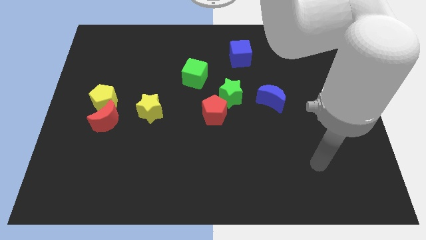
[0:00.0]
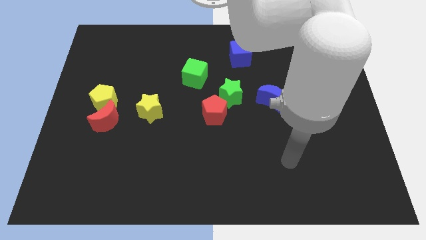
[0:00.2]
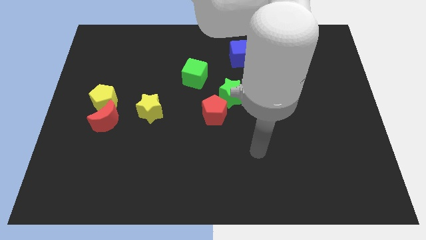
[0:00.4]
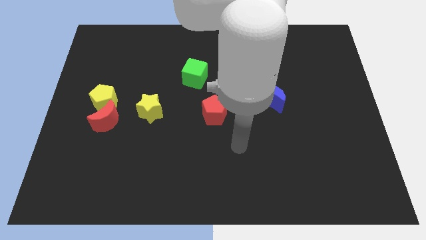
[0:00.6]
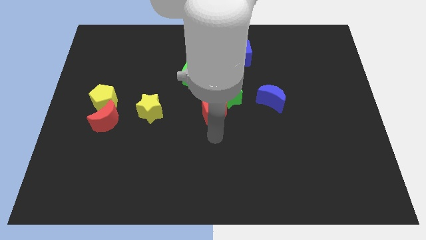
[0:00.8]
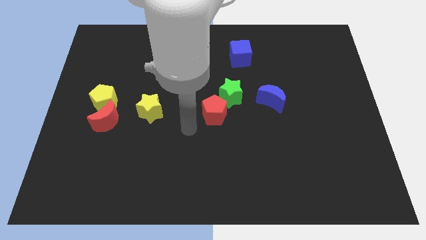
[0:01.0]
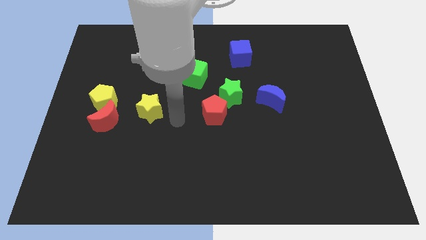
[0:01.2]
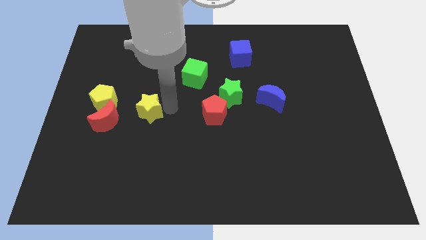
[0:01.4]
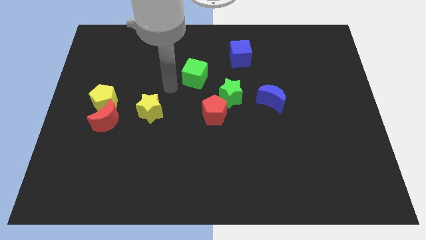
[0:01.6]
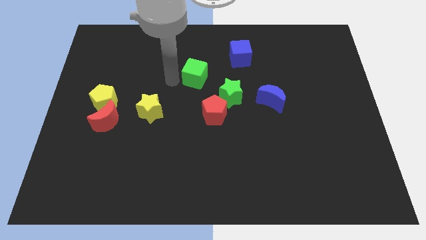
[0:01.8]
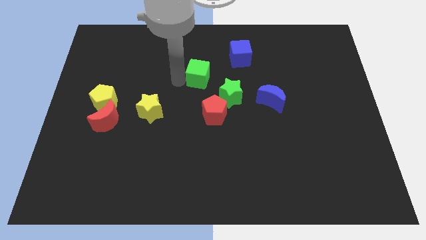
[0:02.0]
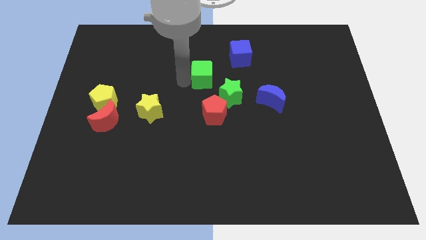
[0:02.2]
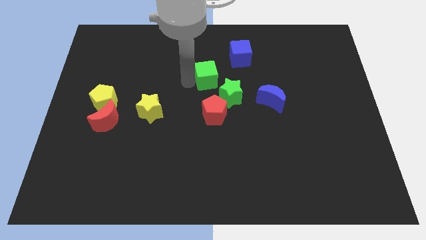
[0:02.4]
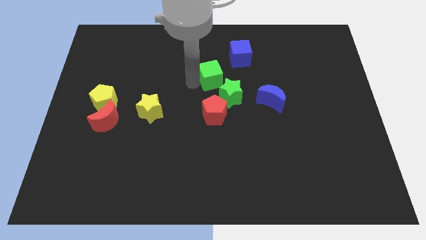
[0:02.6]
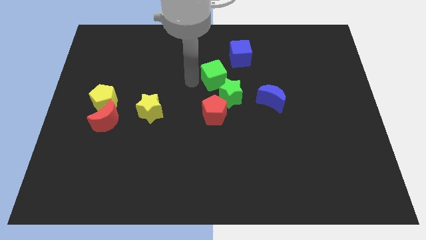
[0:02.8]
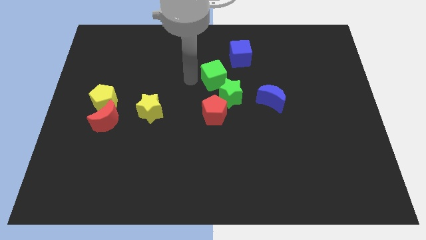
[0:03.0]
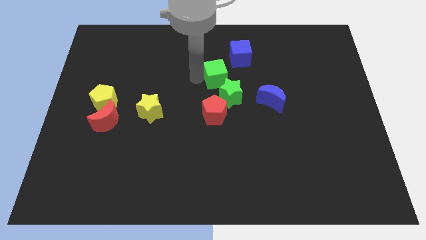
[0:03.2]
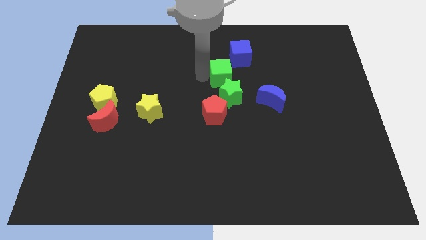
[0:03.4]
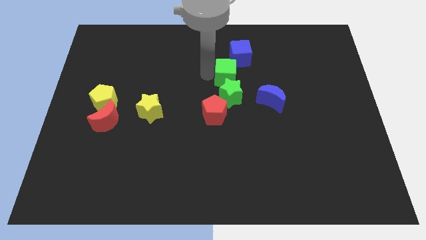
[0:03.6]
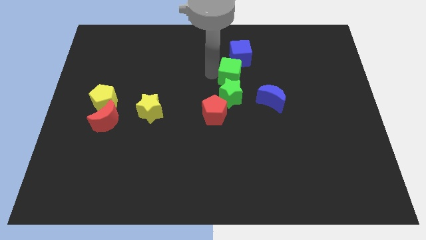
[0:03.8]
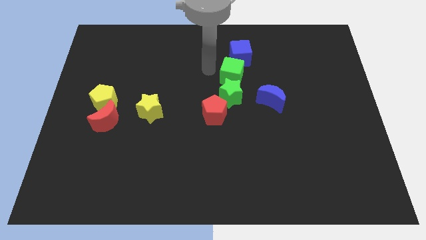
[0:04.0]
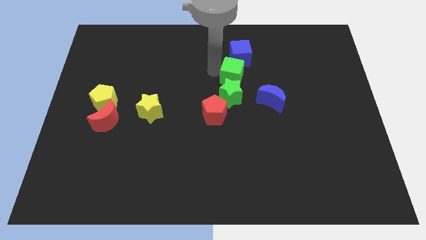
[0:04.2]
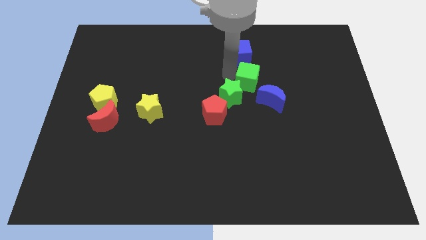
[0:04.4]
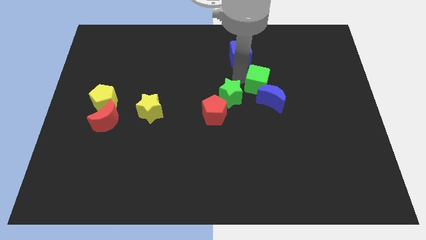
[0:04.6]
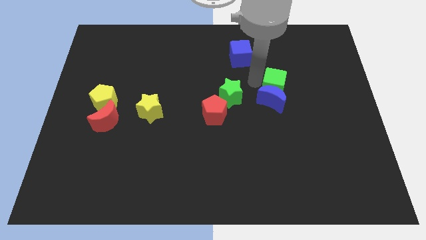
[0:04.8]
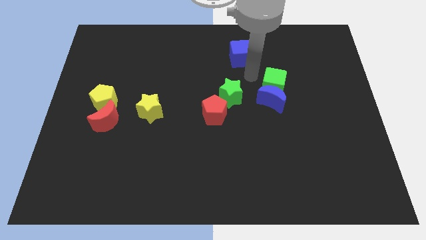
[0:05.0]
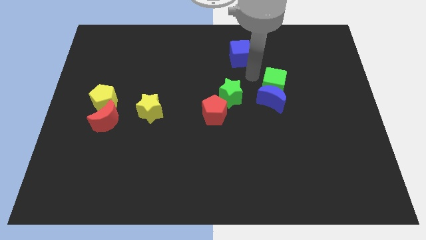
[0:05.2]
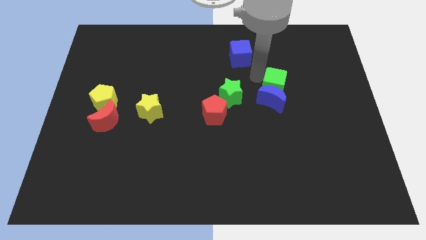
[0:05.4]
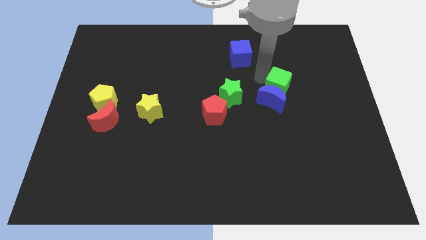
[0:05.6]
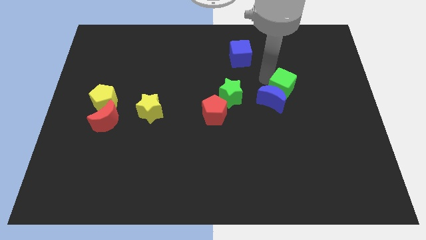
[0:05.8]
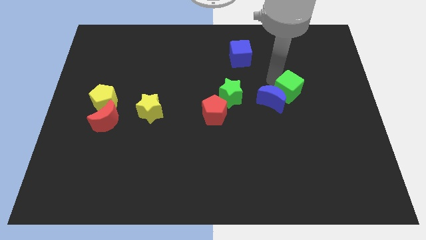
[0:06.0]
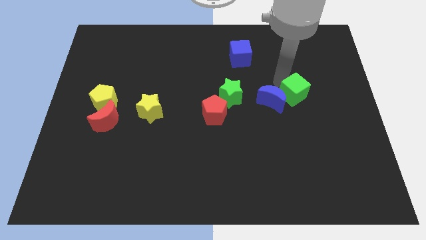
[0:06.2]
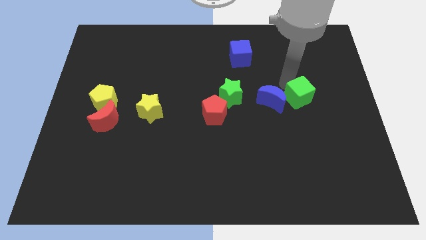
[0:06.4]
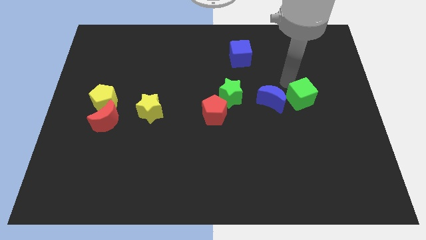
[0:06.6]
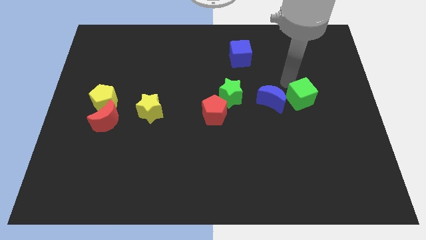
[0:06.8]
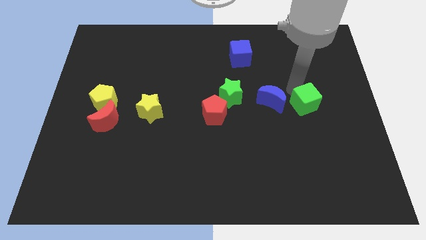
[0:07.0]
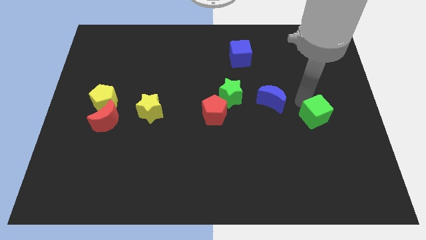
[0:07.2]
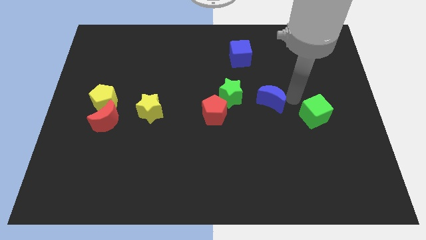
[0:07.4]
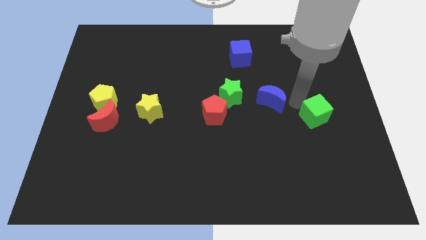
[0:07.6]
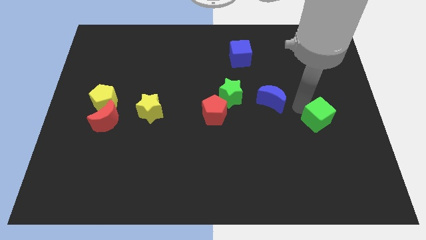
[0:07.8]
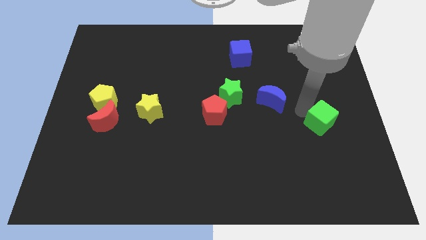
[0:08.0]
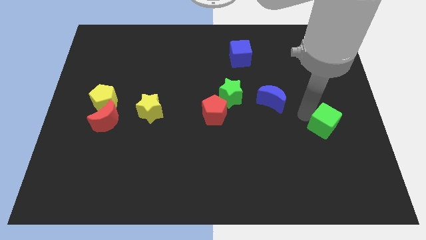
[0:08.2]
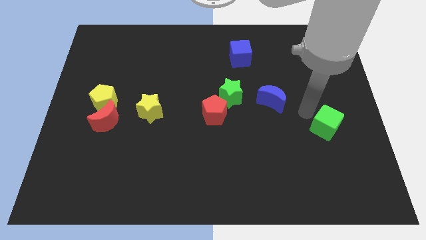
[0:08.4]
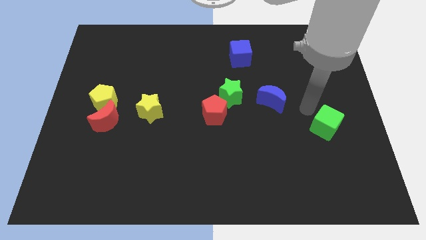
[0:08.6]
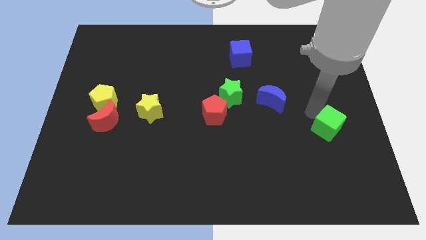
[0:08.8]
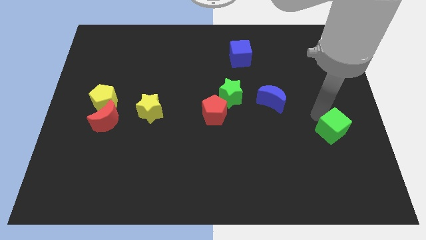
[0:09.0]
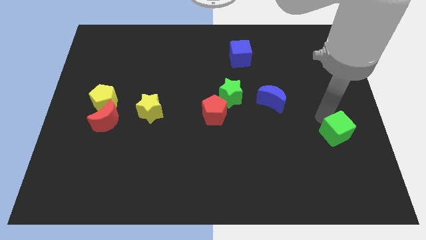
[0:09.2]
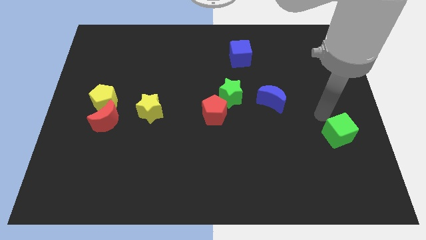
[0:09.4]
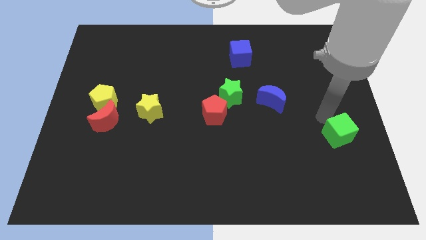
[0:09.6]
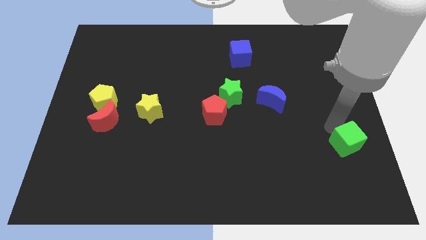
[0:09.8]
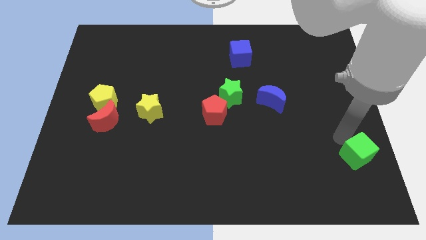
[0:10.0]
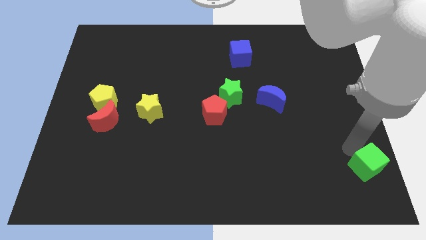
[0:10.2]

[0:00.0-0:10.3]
slide the green cube to the bottom right of the board

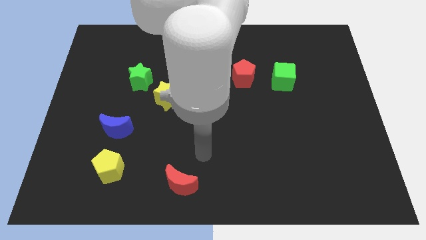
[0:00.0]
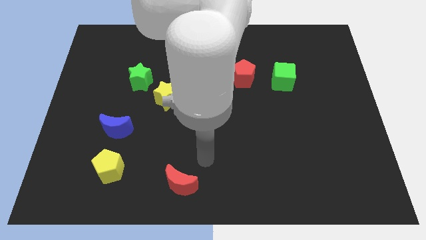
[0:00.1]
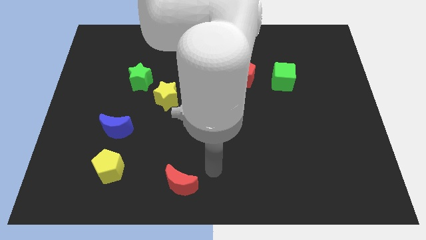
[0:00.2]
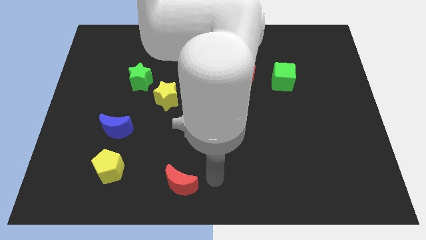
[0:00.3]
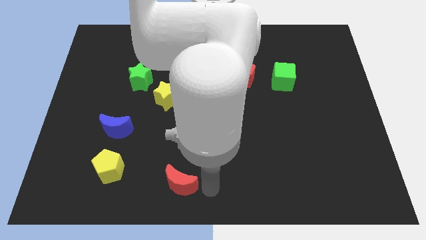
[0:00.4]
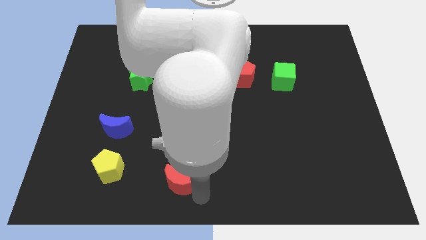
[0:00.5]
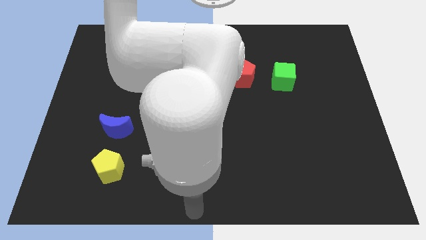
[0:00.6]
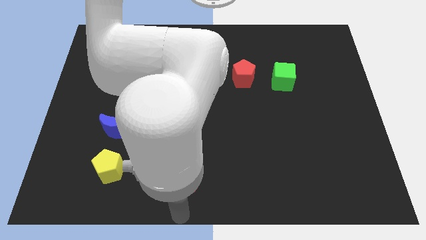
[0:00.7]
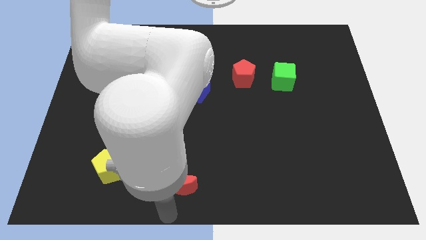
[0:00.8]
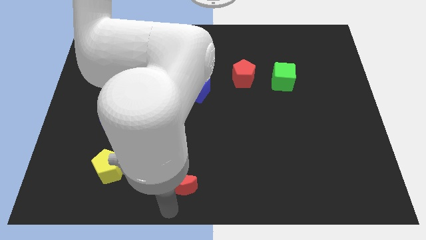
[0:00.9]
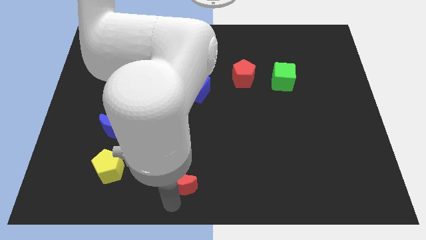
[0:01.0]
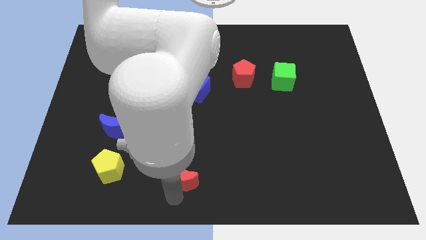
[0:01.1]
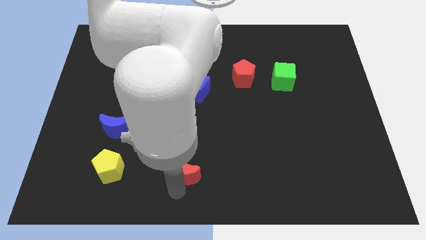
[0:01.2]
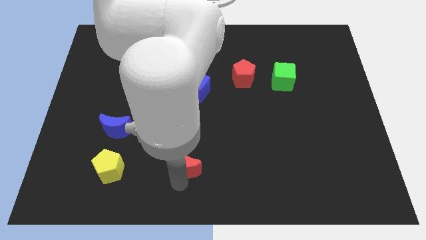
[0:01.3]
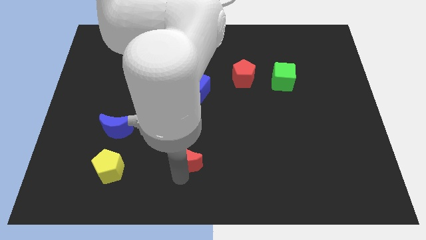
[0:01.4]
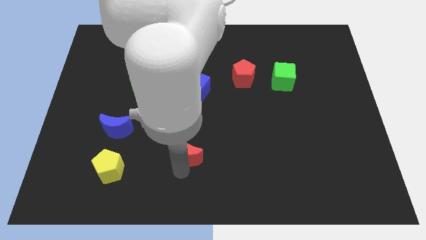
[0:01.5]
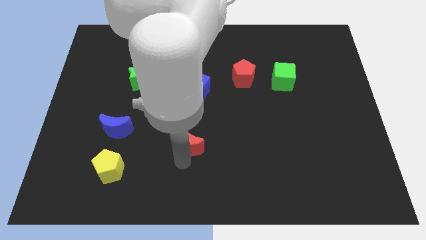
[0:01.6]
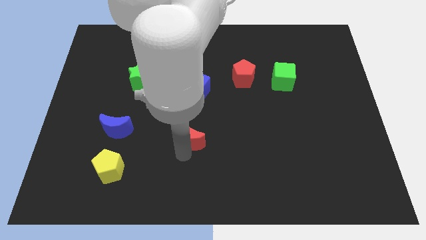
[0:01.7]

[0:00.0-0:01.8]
move the red moon to the middle of the board
